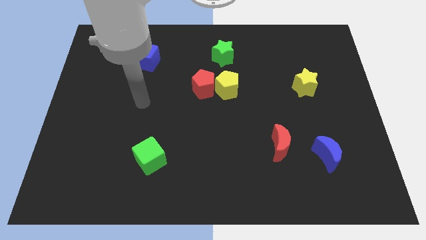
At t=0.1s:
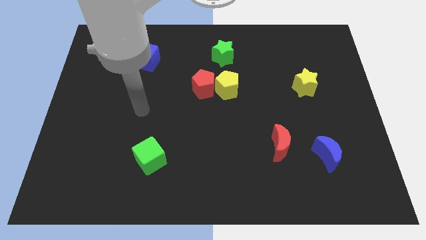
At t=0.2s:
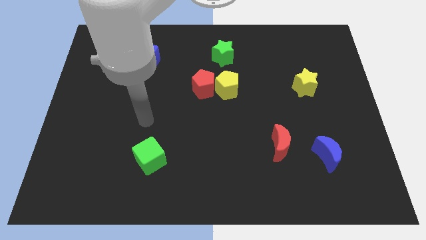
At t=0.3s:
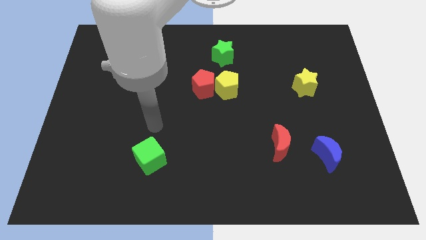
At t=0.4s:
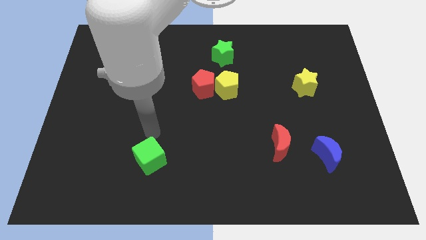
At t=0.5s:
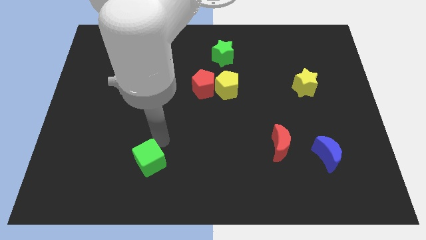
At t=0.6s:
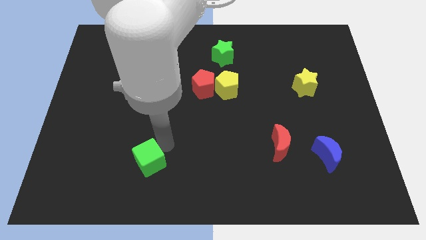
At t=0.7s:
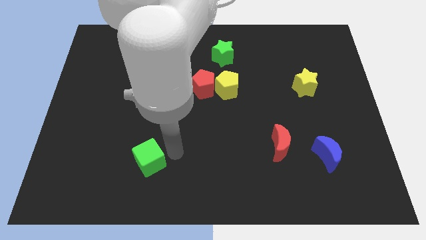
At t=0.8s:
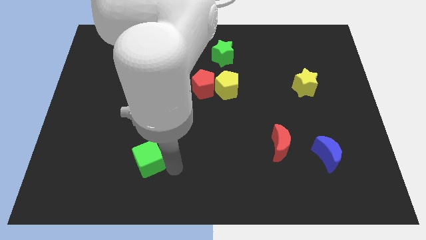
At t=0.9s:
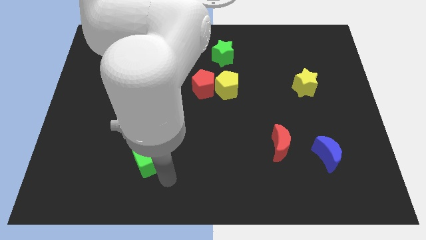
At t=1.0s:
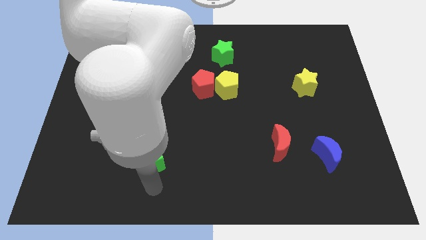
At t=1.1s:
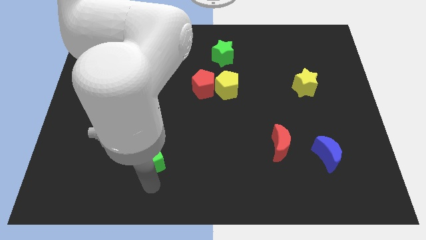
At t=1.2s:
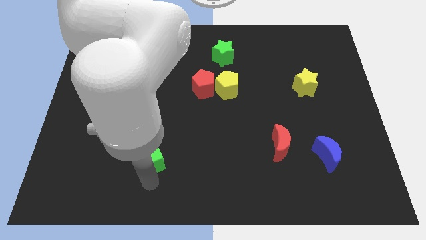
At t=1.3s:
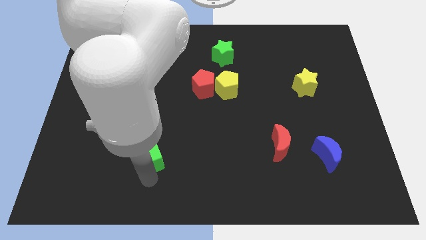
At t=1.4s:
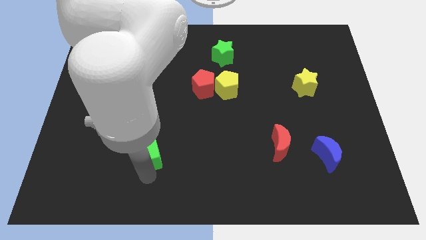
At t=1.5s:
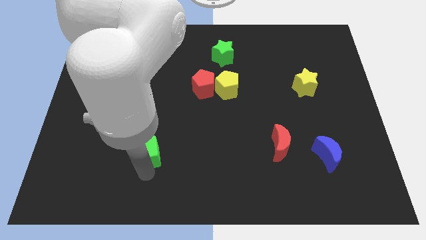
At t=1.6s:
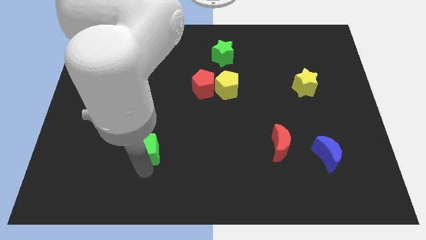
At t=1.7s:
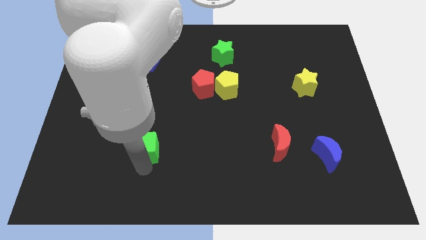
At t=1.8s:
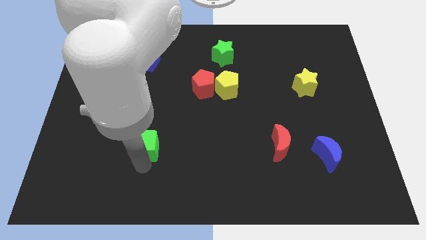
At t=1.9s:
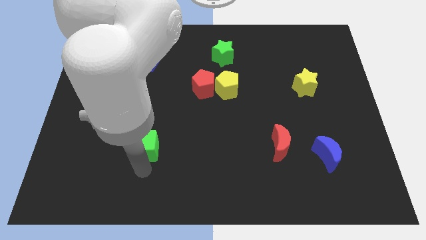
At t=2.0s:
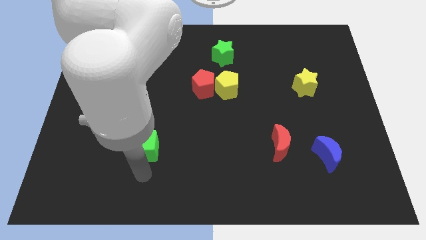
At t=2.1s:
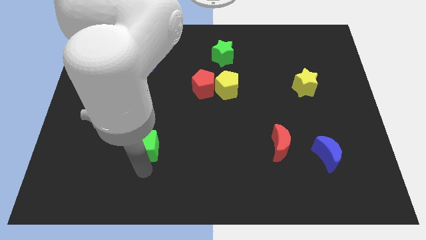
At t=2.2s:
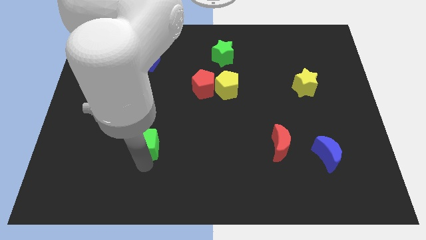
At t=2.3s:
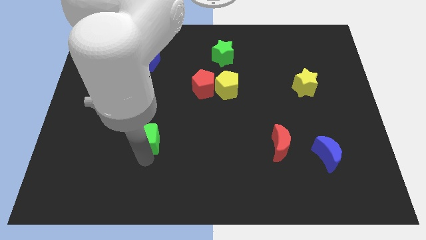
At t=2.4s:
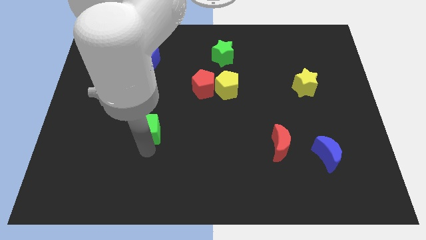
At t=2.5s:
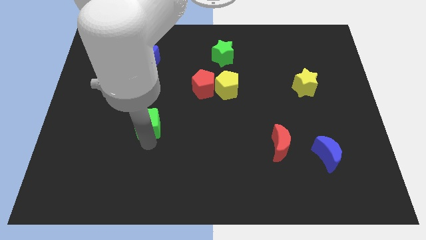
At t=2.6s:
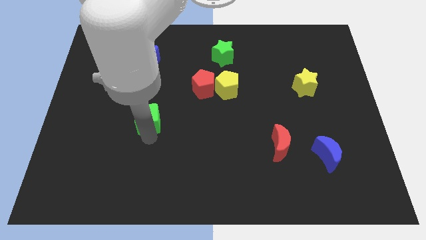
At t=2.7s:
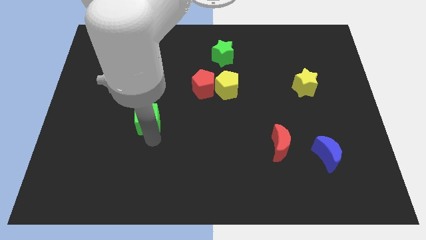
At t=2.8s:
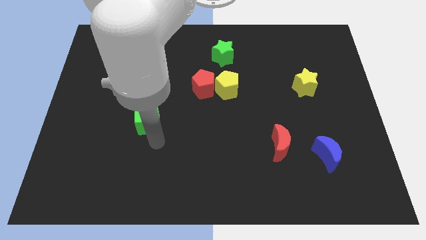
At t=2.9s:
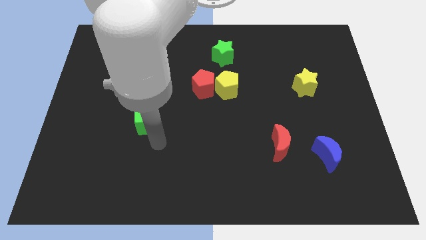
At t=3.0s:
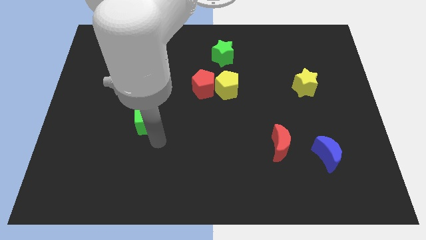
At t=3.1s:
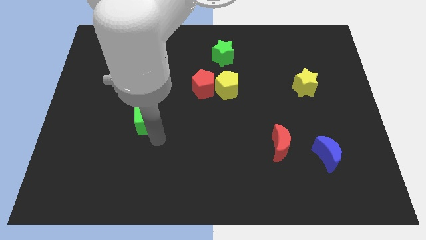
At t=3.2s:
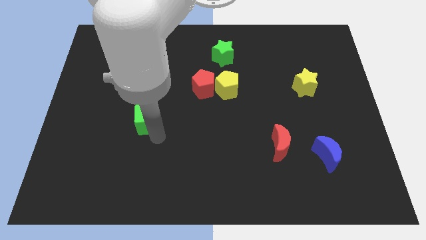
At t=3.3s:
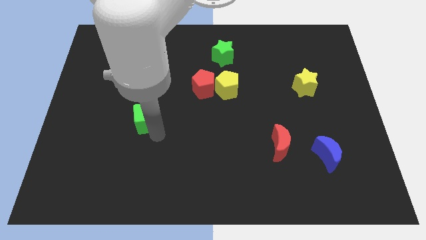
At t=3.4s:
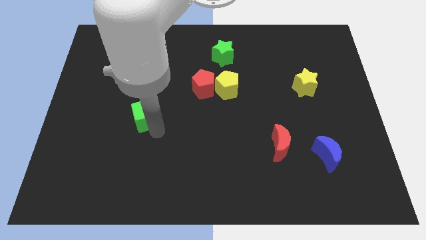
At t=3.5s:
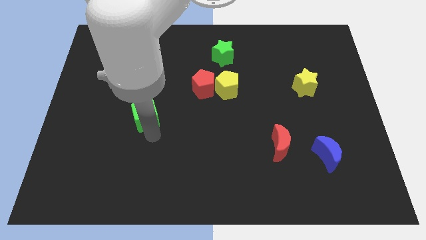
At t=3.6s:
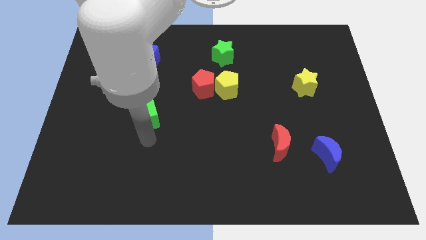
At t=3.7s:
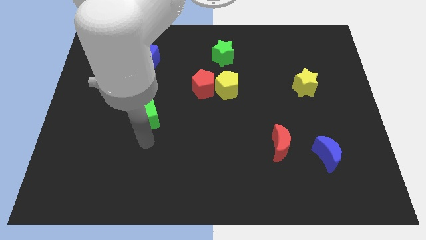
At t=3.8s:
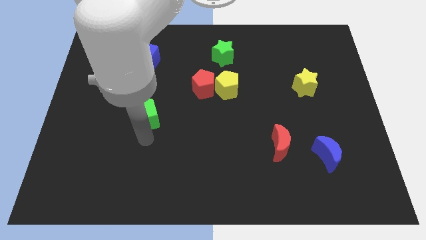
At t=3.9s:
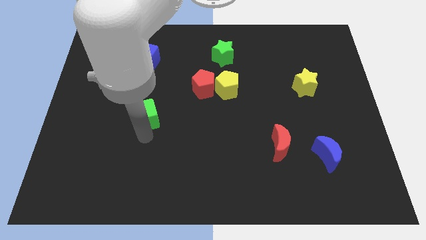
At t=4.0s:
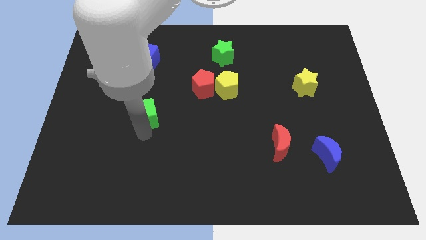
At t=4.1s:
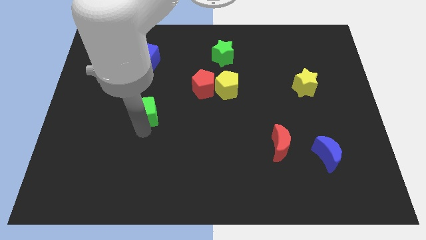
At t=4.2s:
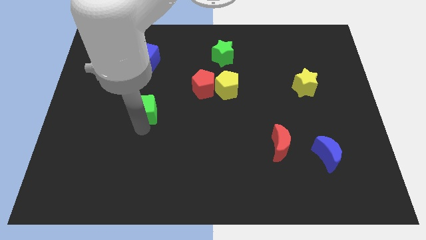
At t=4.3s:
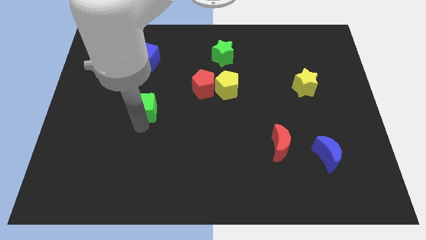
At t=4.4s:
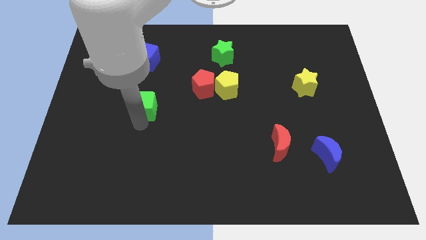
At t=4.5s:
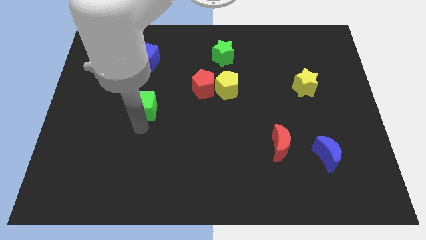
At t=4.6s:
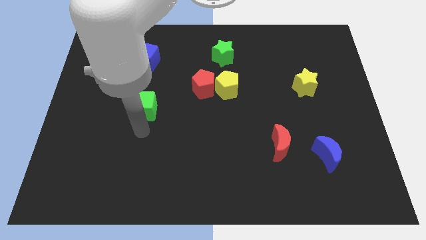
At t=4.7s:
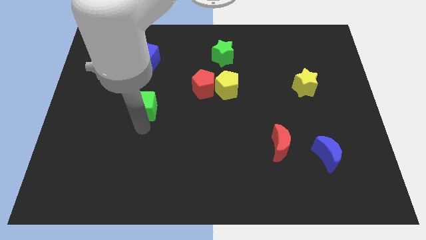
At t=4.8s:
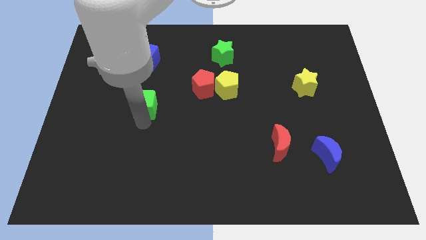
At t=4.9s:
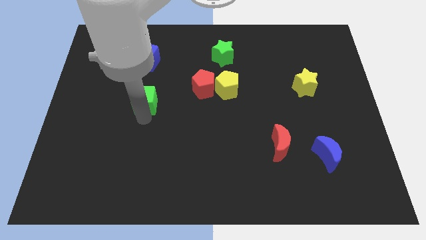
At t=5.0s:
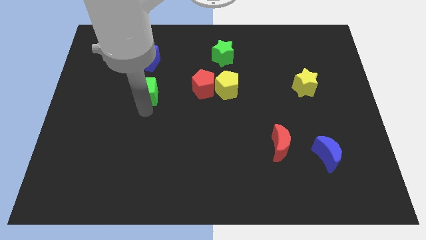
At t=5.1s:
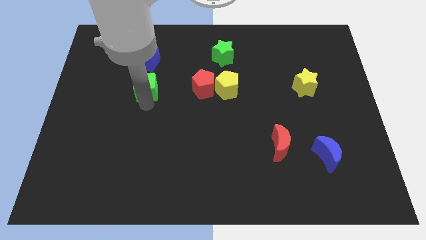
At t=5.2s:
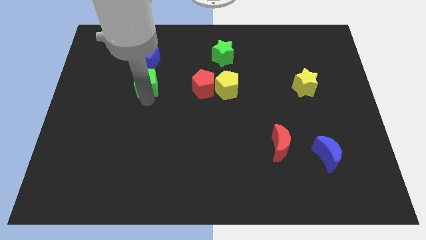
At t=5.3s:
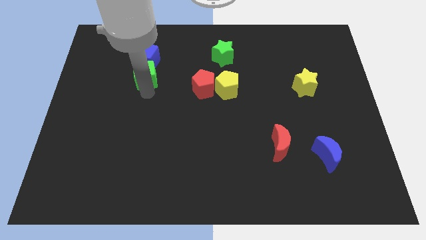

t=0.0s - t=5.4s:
move the green cube towards the blue cube

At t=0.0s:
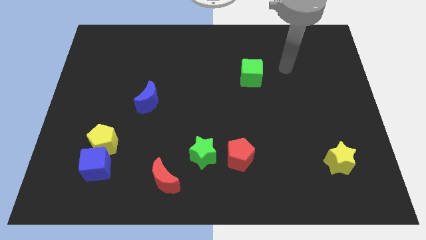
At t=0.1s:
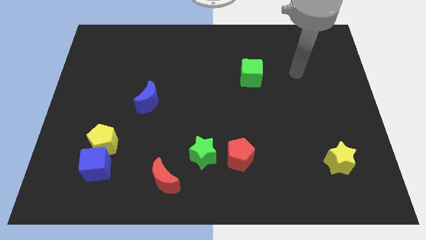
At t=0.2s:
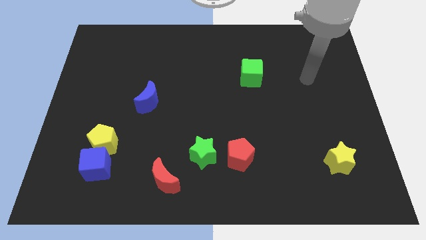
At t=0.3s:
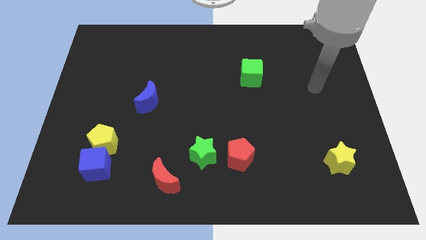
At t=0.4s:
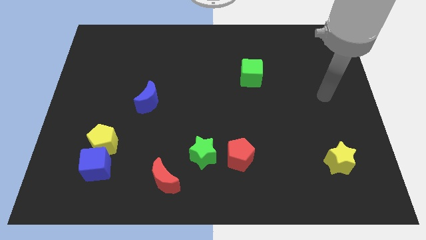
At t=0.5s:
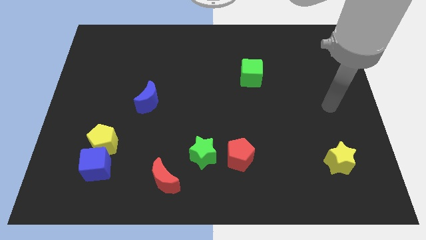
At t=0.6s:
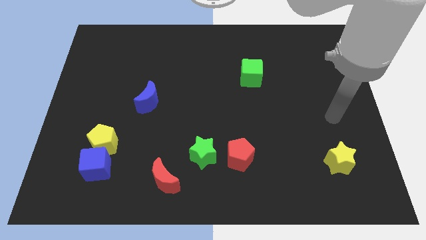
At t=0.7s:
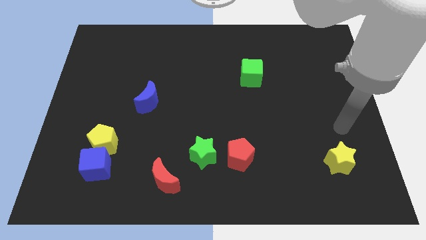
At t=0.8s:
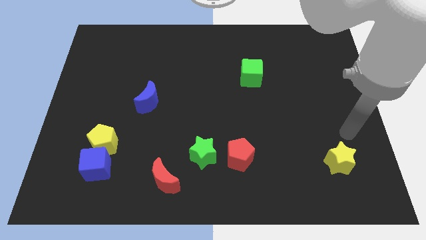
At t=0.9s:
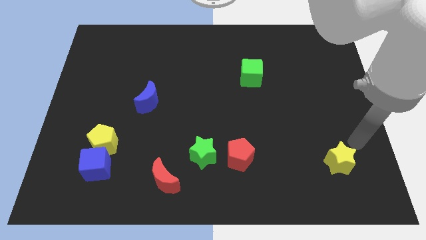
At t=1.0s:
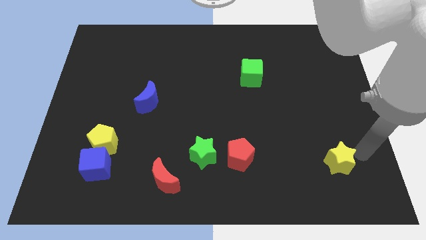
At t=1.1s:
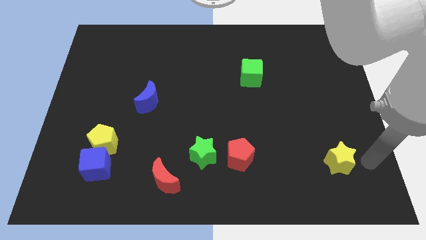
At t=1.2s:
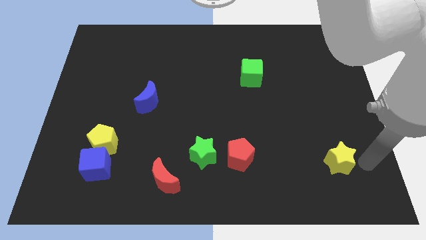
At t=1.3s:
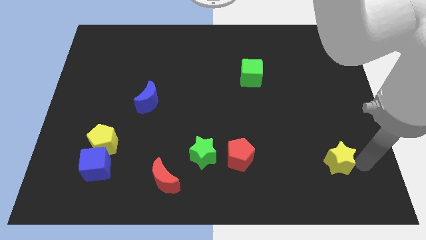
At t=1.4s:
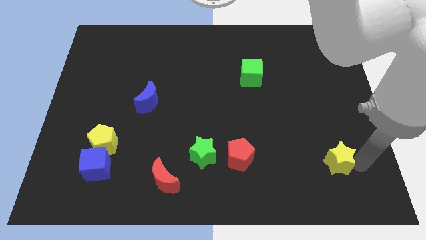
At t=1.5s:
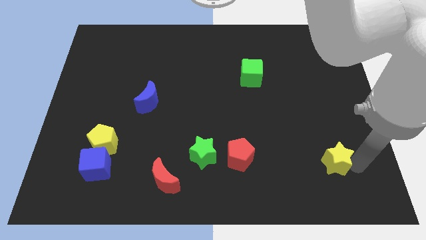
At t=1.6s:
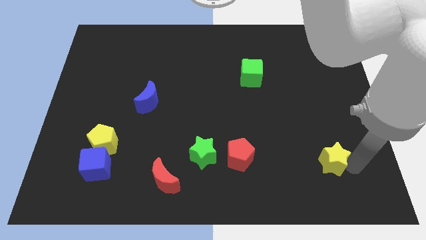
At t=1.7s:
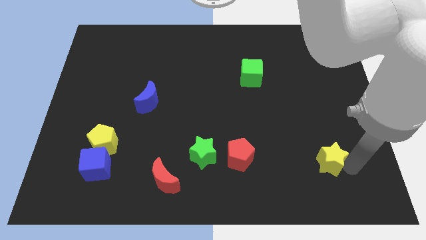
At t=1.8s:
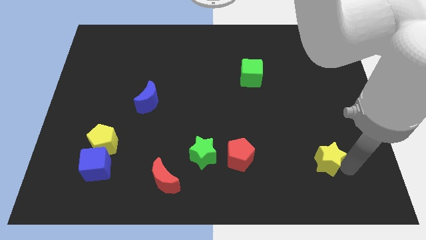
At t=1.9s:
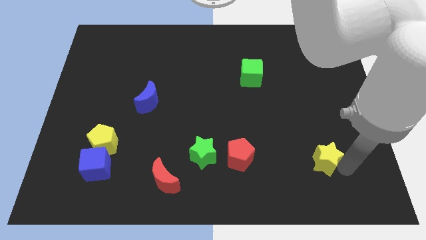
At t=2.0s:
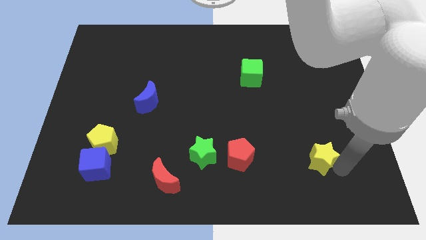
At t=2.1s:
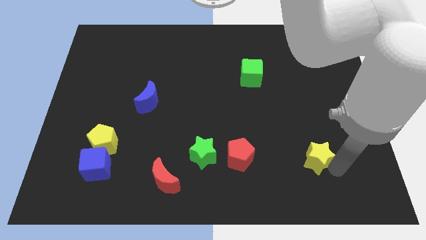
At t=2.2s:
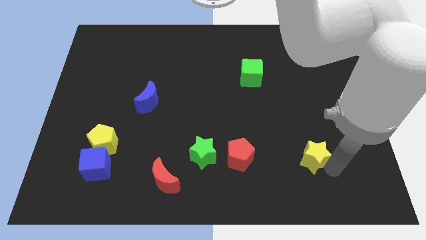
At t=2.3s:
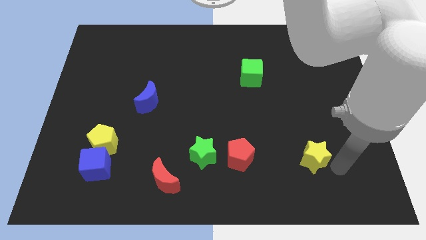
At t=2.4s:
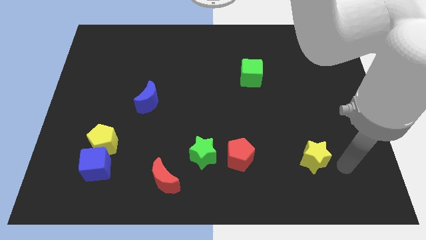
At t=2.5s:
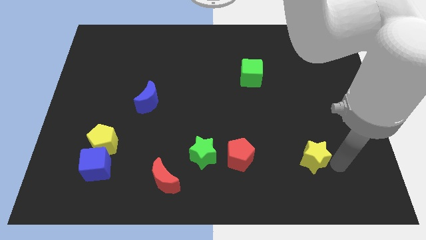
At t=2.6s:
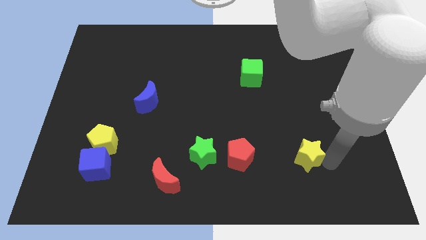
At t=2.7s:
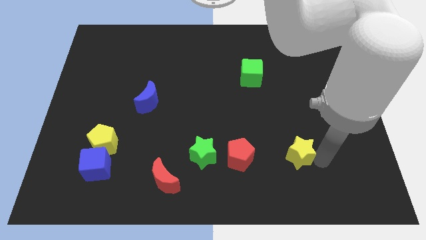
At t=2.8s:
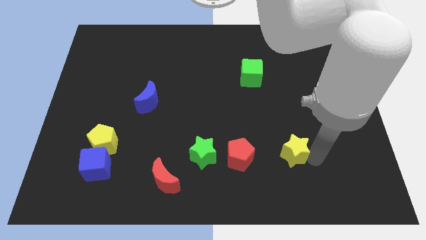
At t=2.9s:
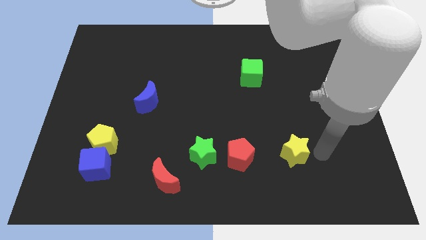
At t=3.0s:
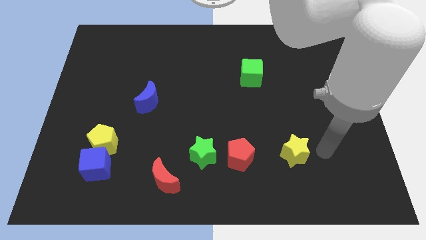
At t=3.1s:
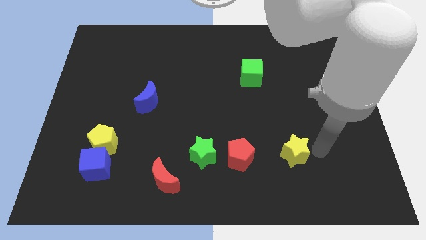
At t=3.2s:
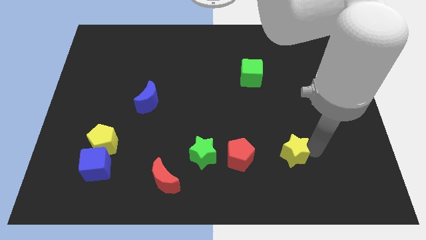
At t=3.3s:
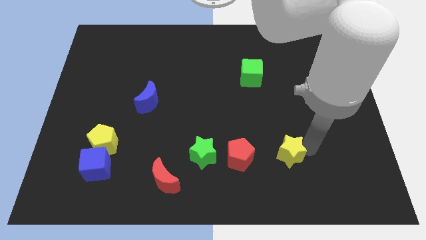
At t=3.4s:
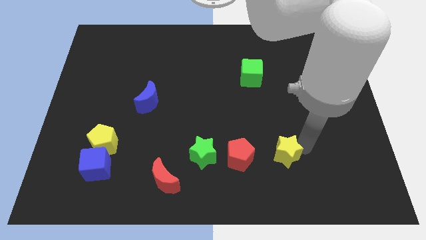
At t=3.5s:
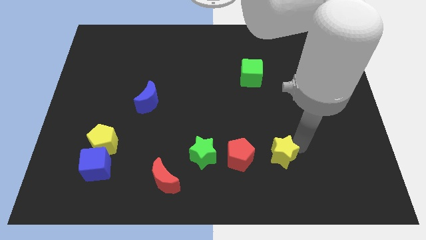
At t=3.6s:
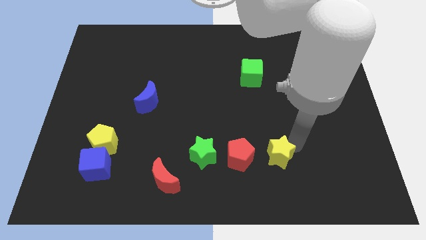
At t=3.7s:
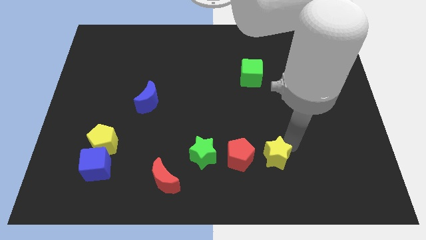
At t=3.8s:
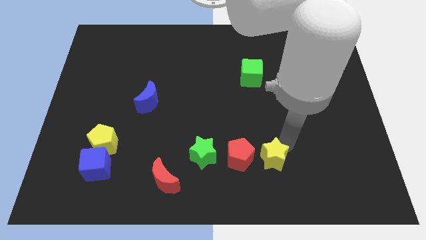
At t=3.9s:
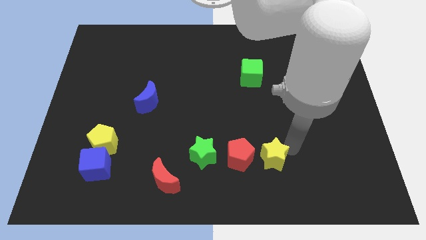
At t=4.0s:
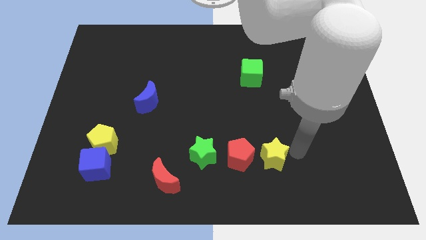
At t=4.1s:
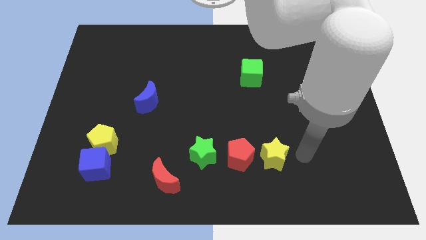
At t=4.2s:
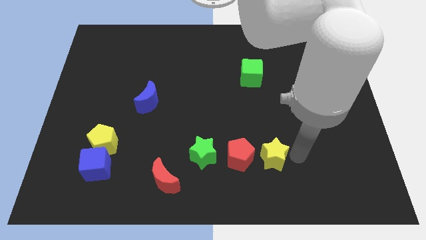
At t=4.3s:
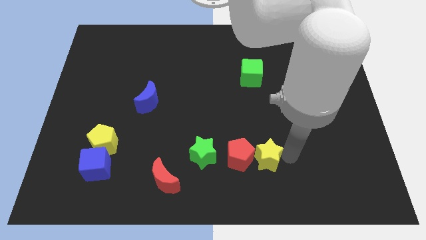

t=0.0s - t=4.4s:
move the yellow star towards the red pentagon
